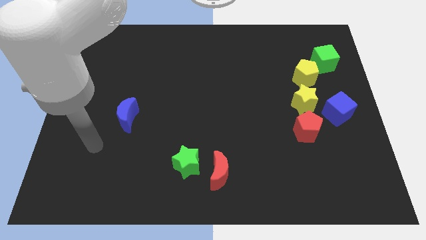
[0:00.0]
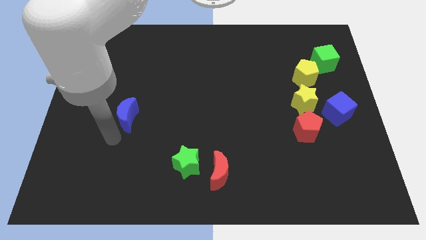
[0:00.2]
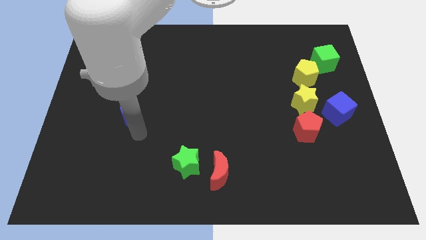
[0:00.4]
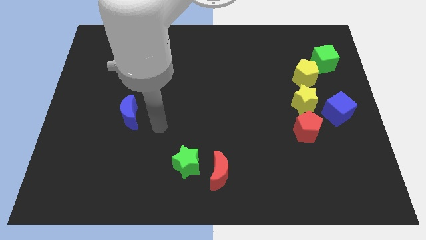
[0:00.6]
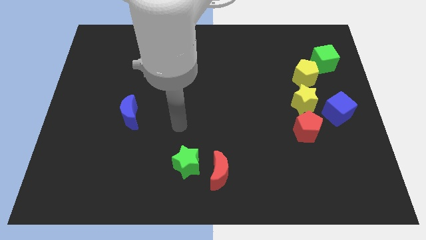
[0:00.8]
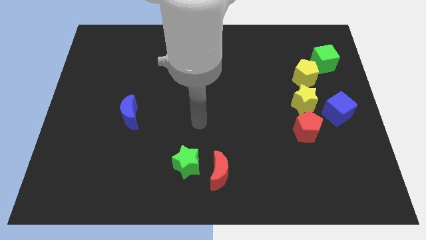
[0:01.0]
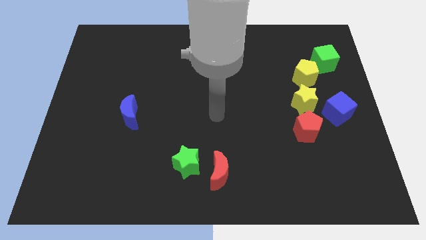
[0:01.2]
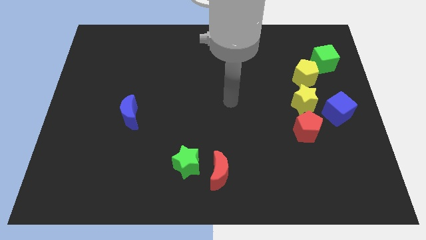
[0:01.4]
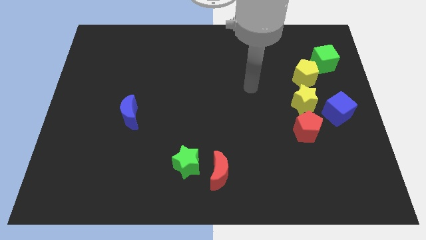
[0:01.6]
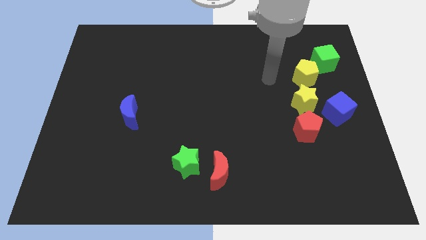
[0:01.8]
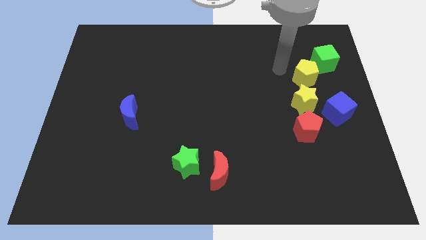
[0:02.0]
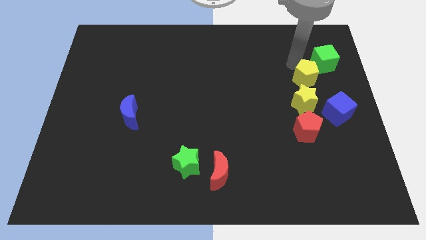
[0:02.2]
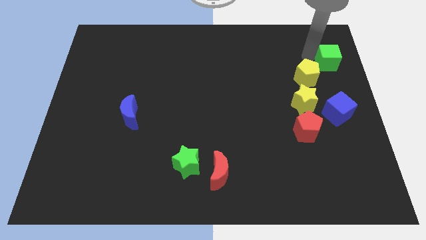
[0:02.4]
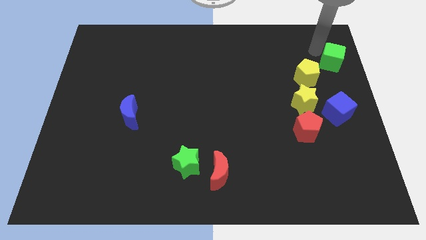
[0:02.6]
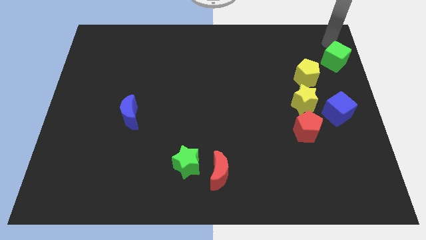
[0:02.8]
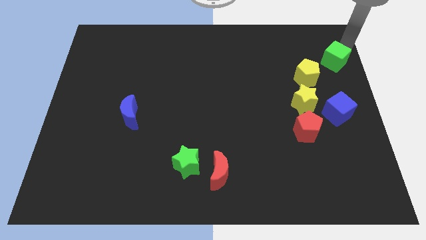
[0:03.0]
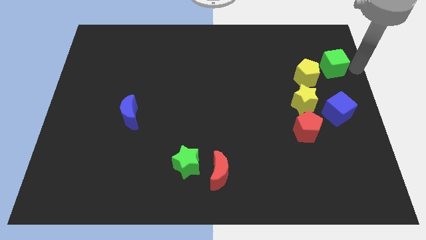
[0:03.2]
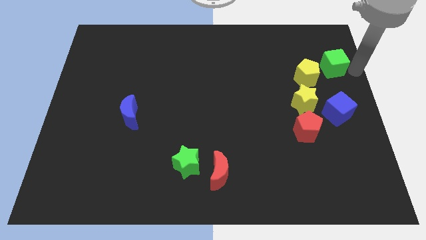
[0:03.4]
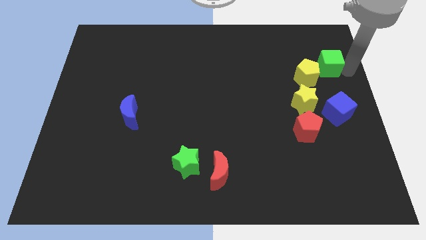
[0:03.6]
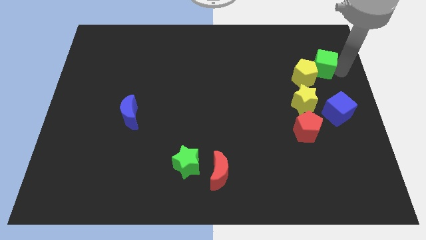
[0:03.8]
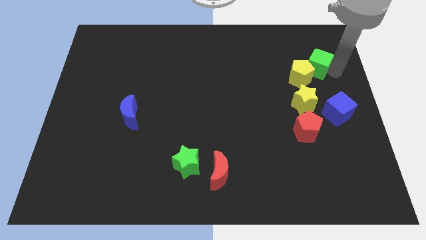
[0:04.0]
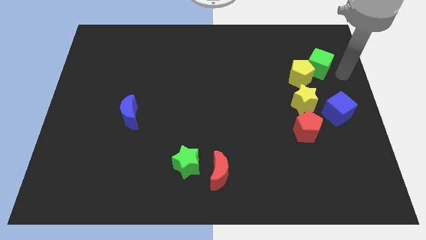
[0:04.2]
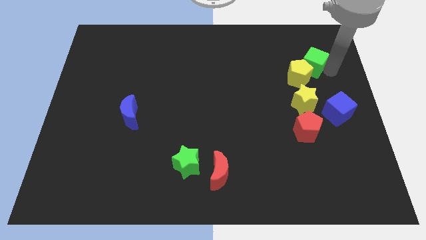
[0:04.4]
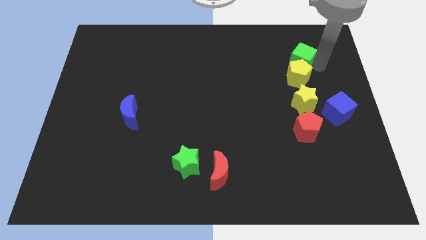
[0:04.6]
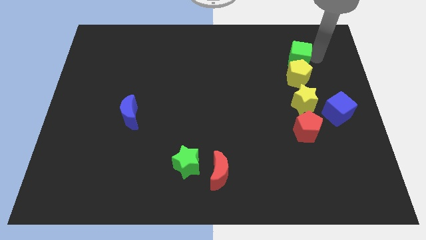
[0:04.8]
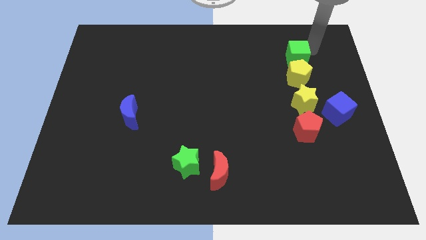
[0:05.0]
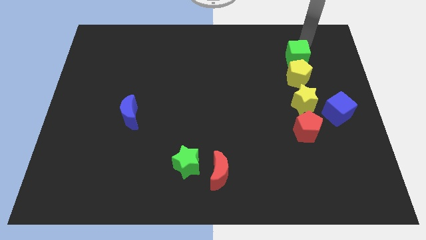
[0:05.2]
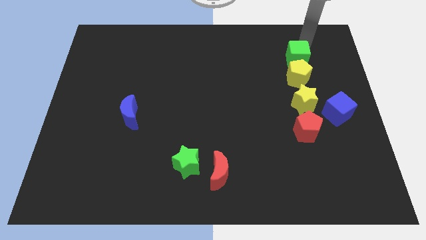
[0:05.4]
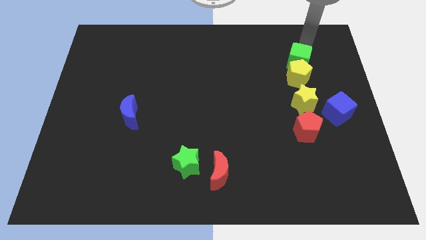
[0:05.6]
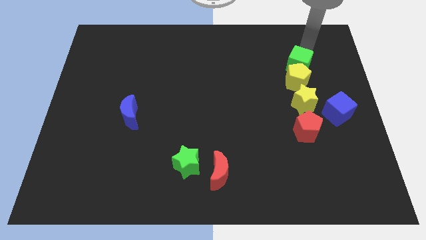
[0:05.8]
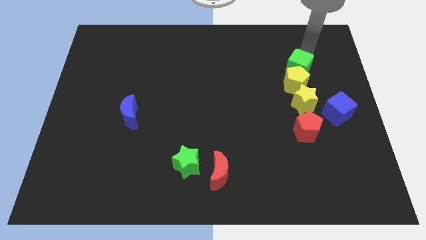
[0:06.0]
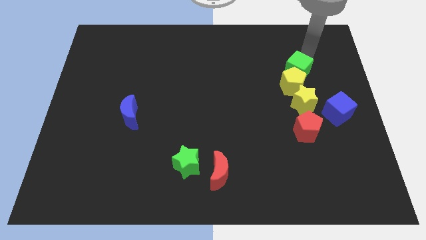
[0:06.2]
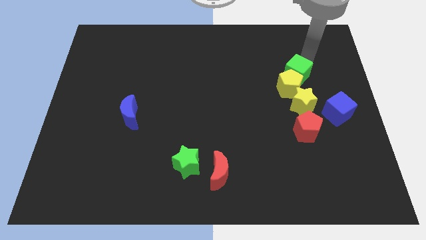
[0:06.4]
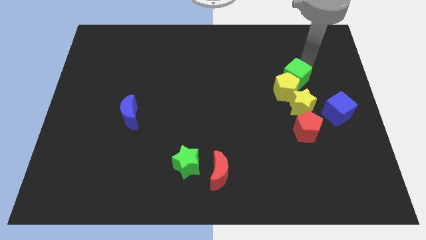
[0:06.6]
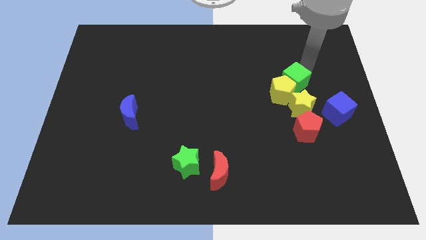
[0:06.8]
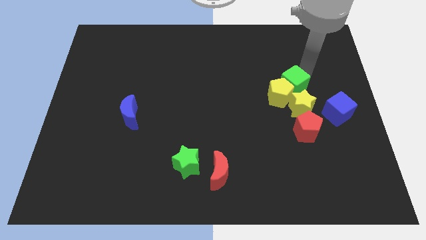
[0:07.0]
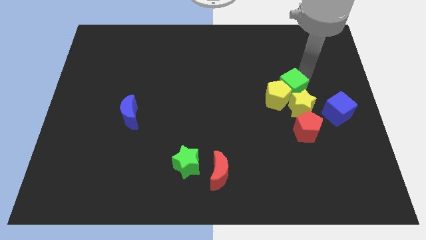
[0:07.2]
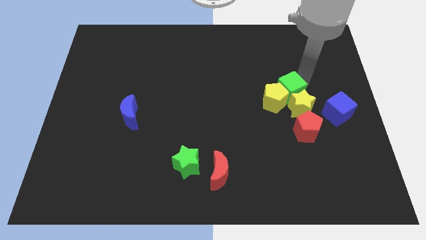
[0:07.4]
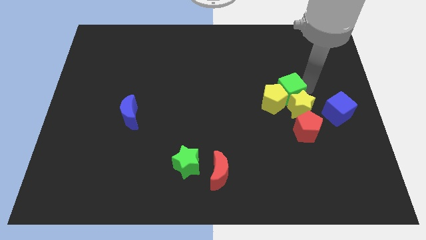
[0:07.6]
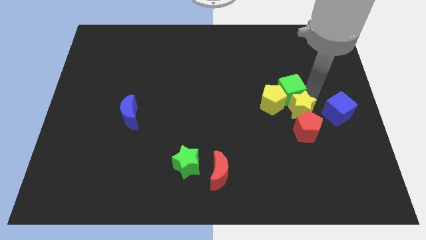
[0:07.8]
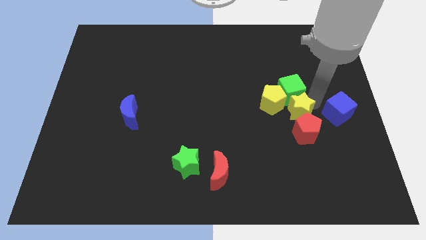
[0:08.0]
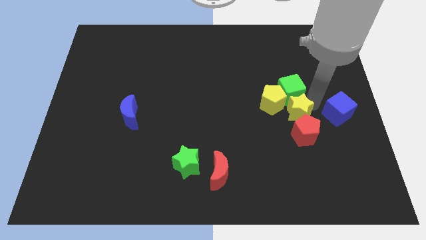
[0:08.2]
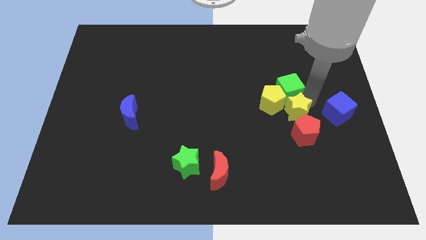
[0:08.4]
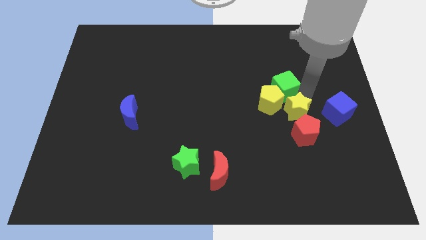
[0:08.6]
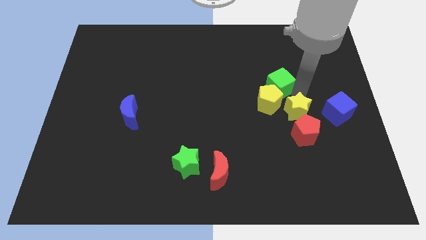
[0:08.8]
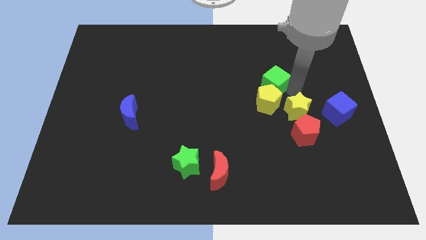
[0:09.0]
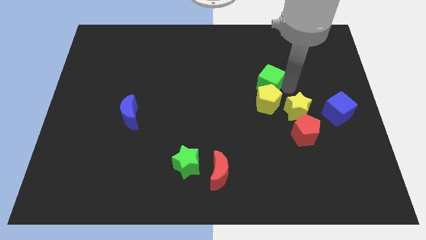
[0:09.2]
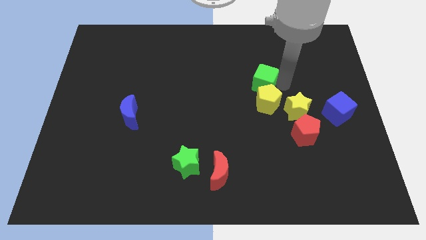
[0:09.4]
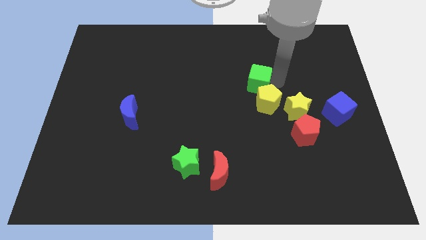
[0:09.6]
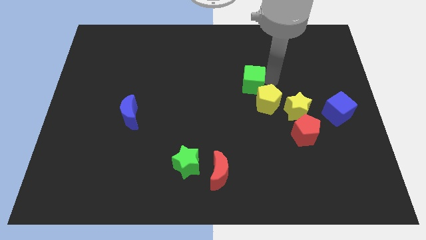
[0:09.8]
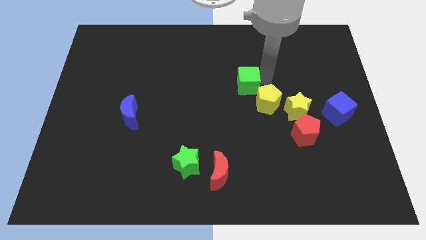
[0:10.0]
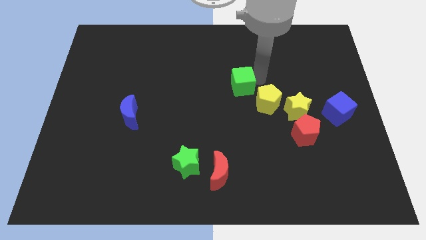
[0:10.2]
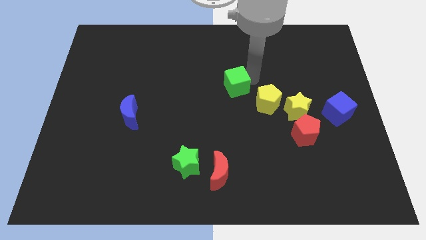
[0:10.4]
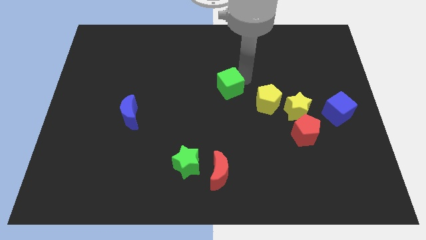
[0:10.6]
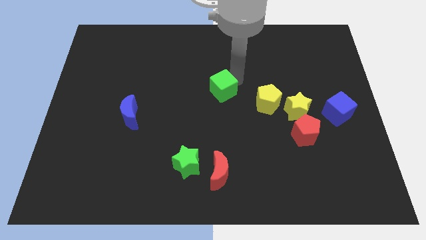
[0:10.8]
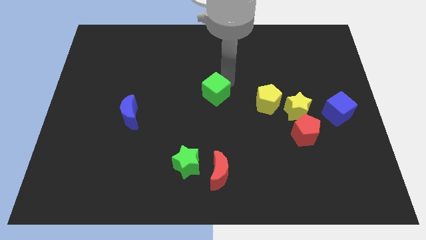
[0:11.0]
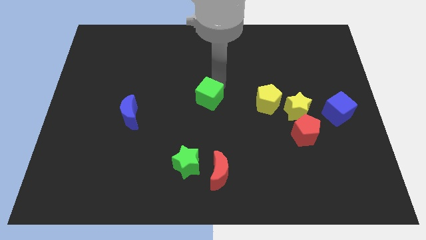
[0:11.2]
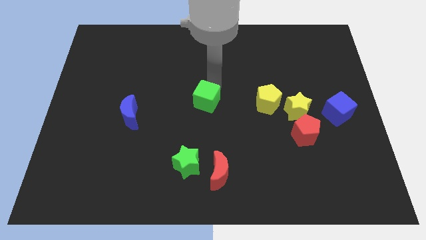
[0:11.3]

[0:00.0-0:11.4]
slide the green cube downwards and then left

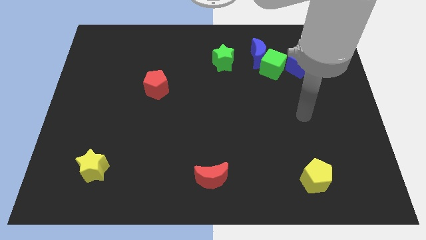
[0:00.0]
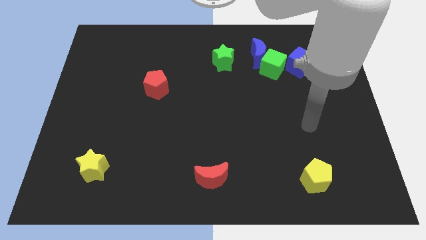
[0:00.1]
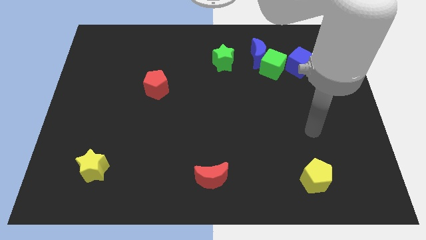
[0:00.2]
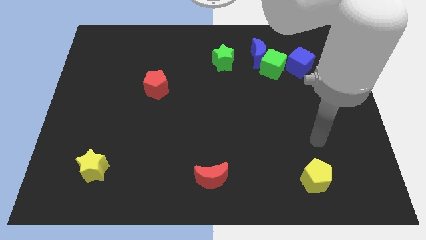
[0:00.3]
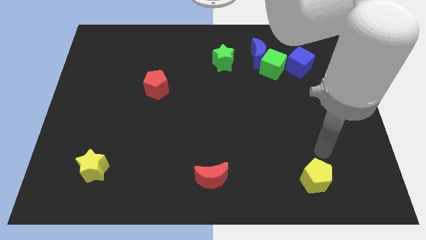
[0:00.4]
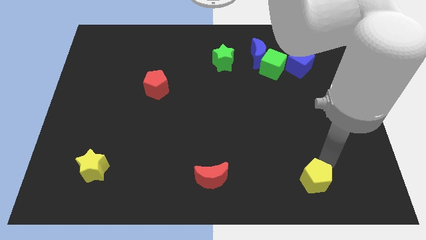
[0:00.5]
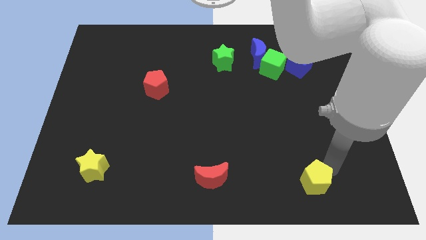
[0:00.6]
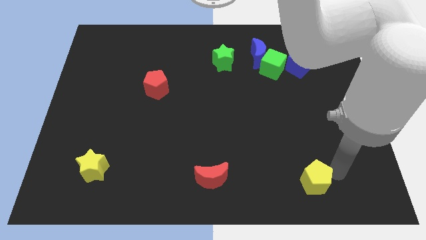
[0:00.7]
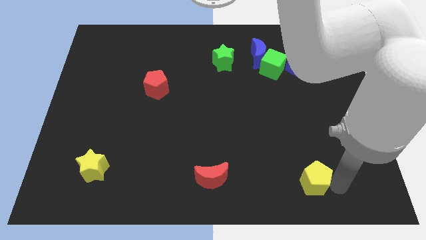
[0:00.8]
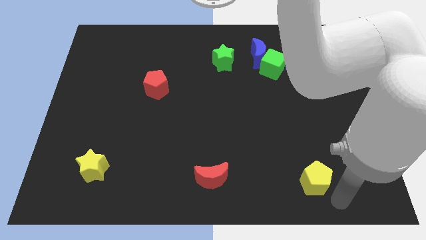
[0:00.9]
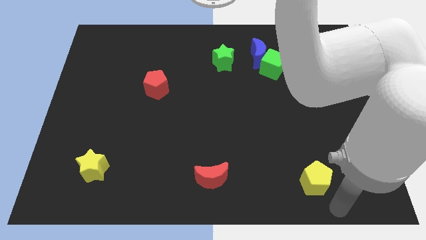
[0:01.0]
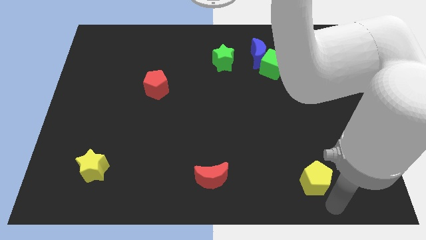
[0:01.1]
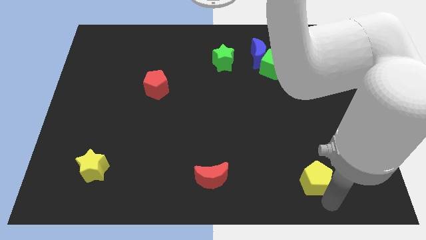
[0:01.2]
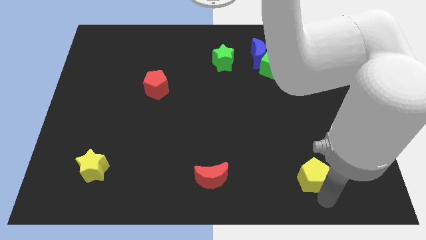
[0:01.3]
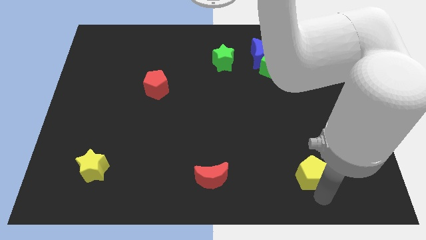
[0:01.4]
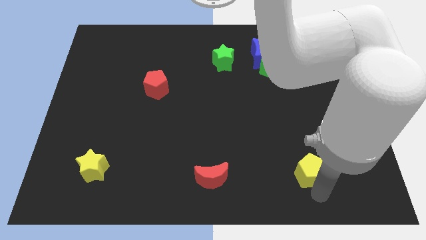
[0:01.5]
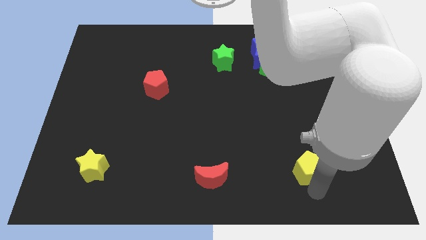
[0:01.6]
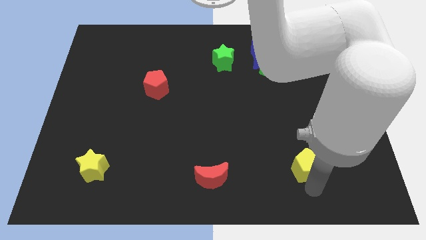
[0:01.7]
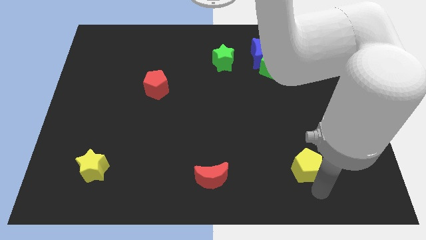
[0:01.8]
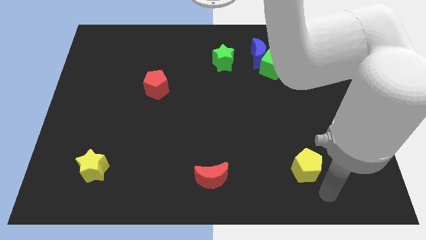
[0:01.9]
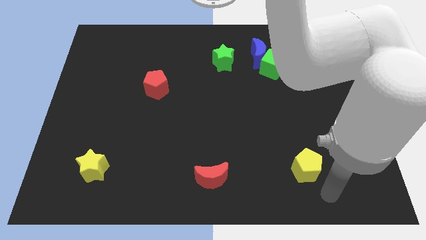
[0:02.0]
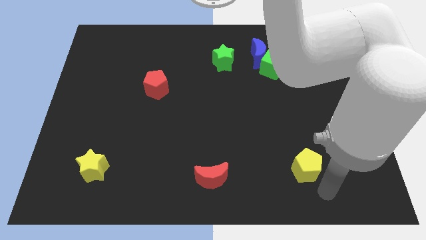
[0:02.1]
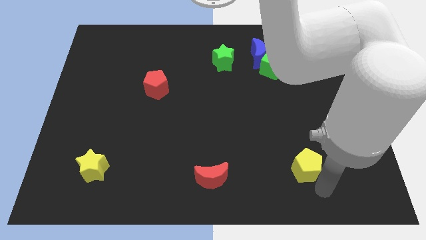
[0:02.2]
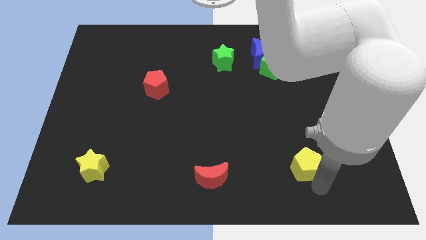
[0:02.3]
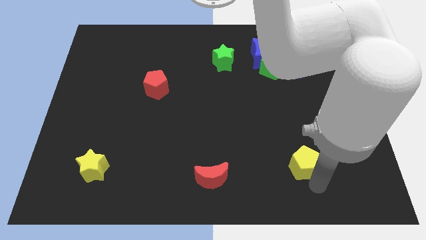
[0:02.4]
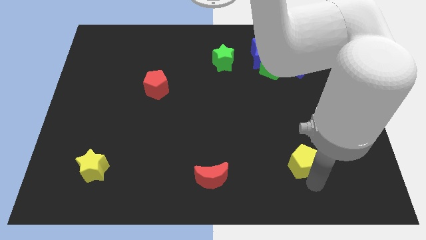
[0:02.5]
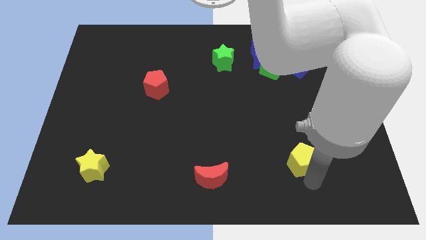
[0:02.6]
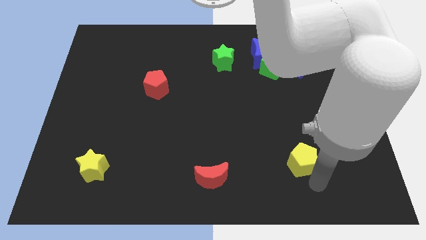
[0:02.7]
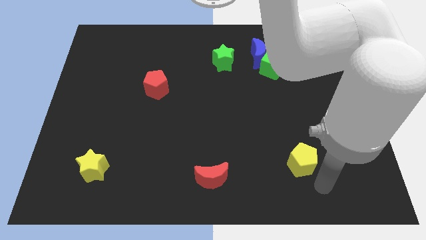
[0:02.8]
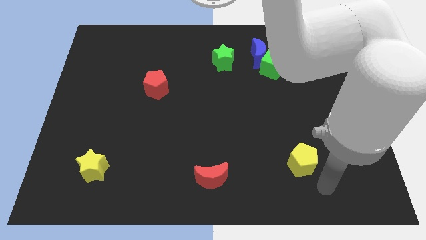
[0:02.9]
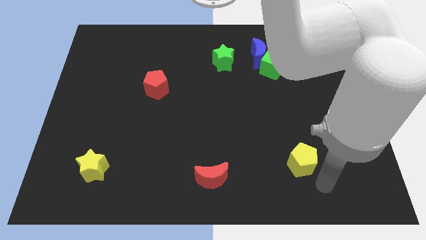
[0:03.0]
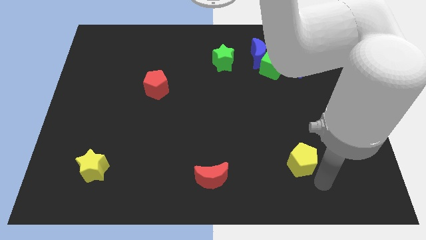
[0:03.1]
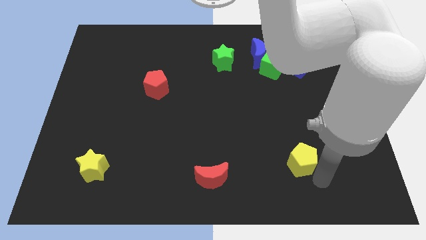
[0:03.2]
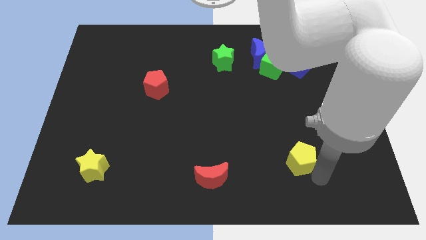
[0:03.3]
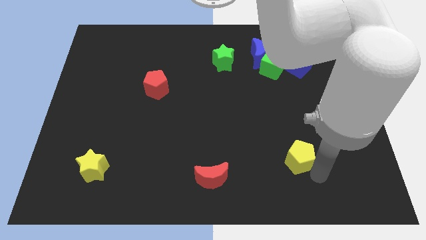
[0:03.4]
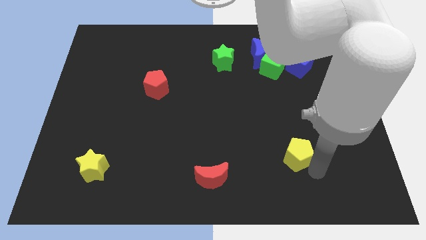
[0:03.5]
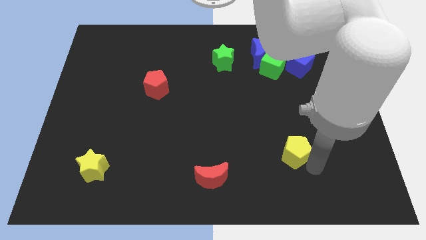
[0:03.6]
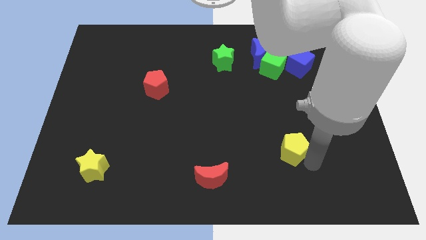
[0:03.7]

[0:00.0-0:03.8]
slightly push the yellow pentagon diagonally up and to the left
